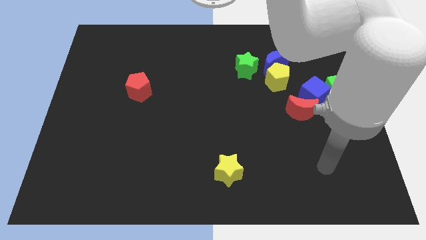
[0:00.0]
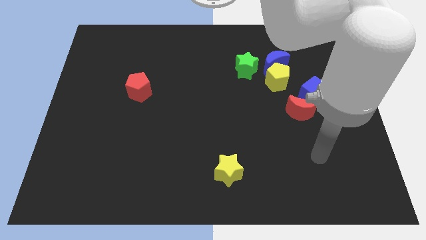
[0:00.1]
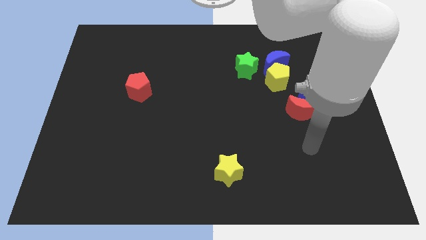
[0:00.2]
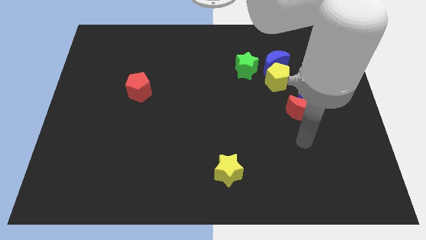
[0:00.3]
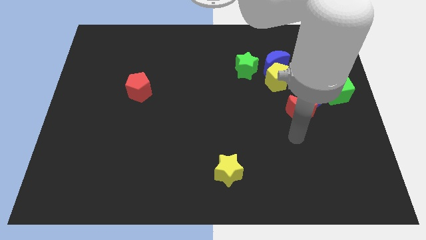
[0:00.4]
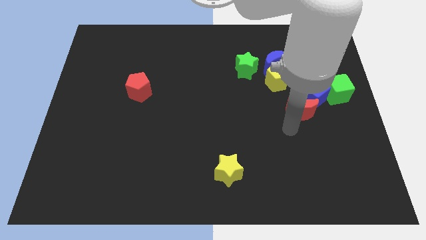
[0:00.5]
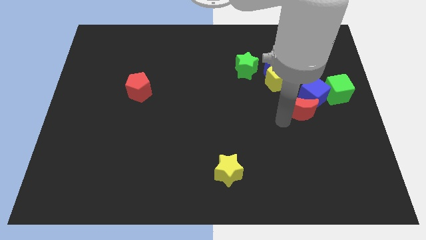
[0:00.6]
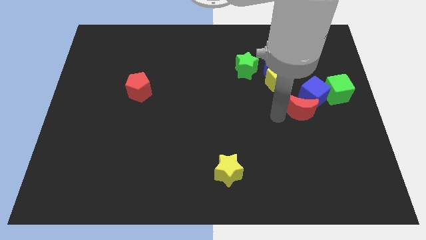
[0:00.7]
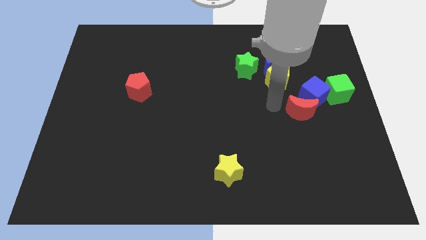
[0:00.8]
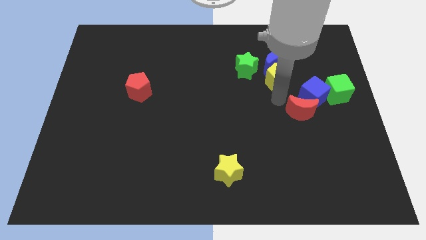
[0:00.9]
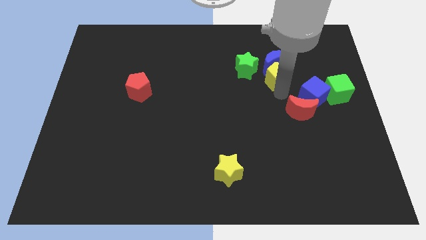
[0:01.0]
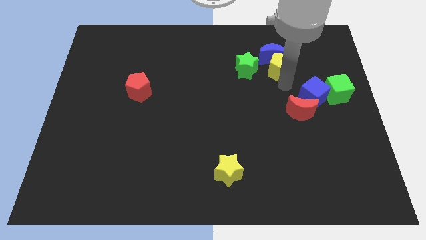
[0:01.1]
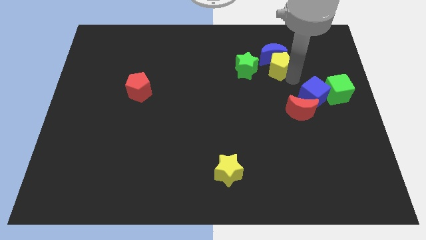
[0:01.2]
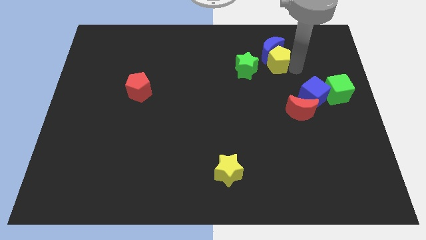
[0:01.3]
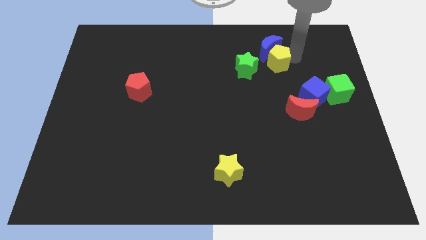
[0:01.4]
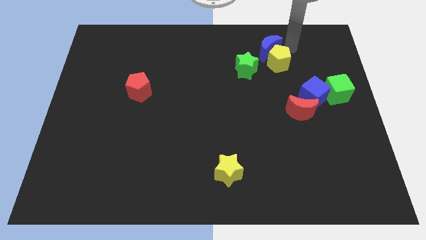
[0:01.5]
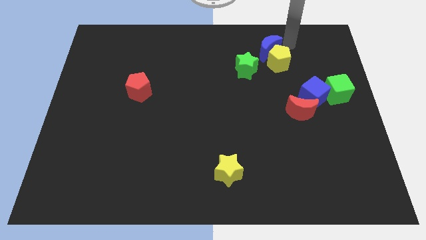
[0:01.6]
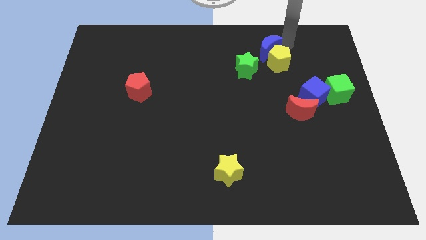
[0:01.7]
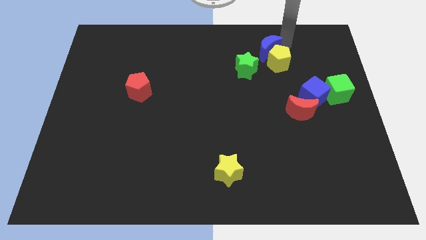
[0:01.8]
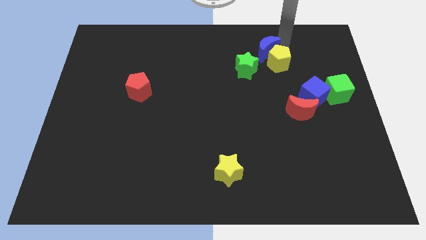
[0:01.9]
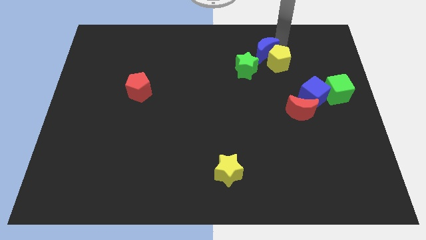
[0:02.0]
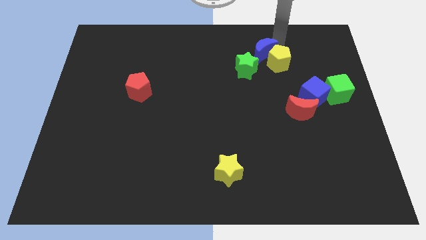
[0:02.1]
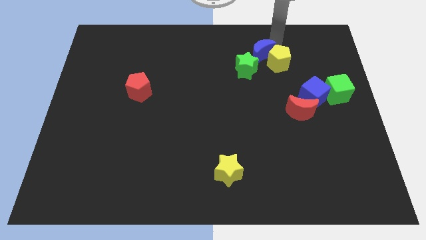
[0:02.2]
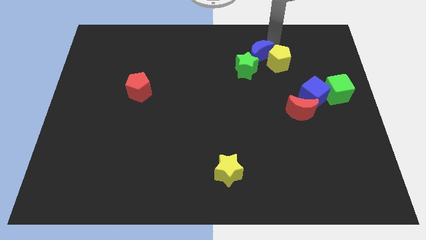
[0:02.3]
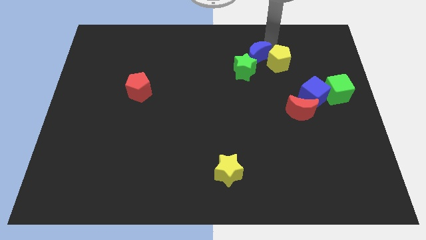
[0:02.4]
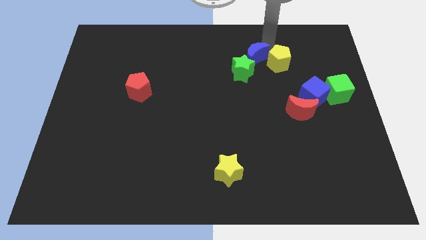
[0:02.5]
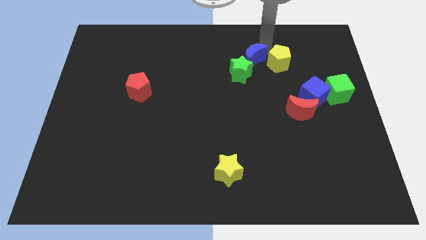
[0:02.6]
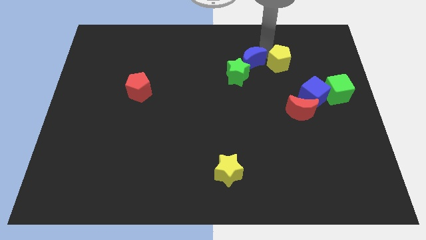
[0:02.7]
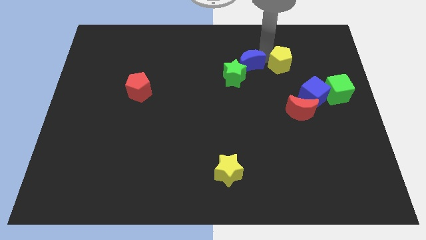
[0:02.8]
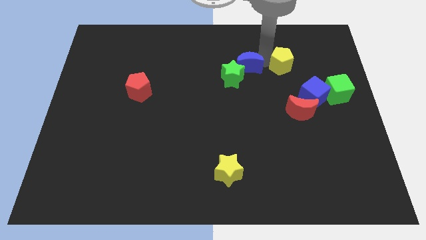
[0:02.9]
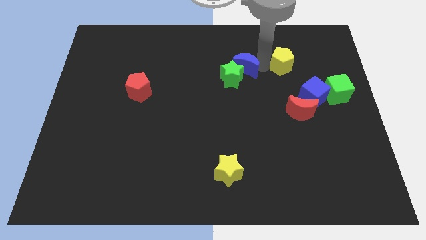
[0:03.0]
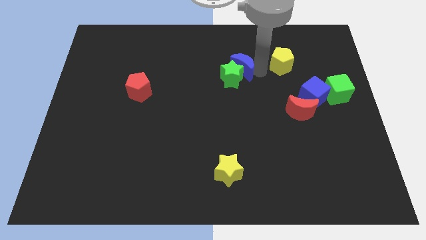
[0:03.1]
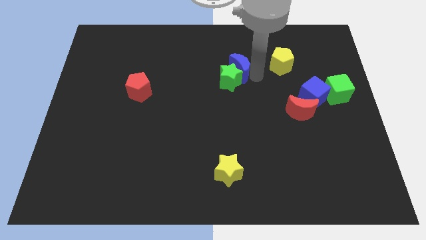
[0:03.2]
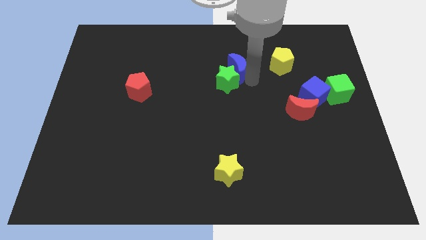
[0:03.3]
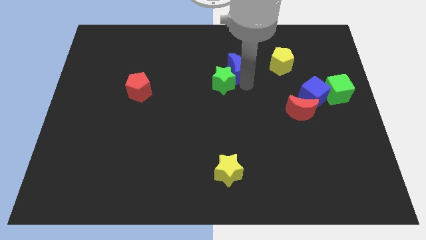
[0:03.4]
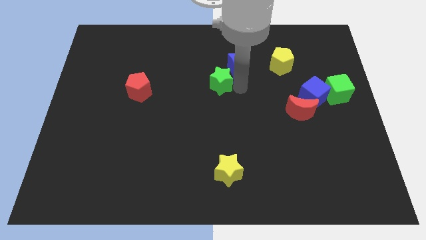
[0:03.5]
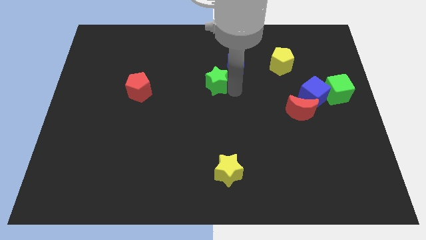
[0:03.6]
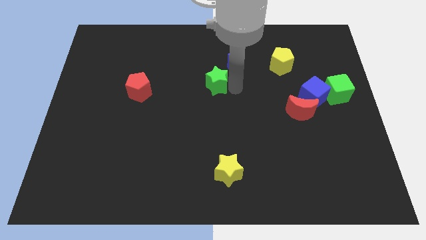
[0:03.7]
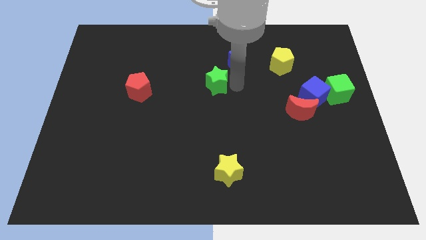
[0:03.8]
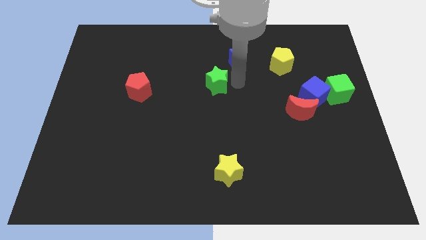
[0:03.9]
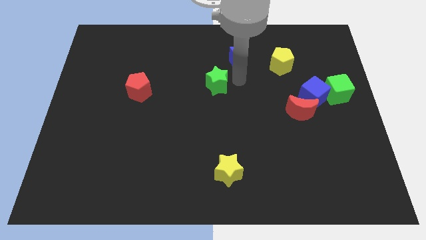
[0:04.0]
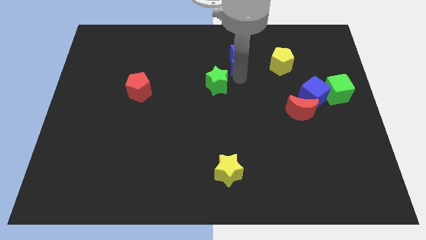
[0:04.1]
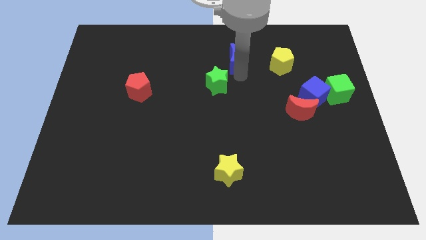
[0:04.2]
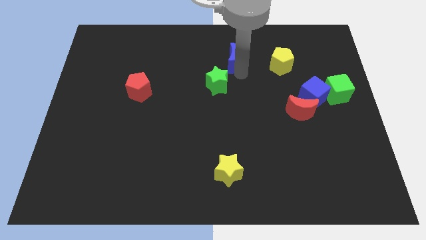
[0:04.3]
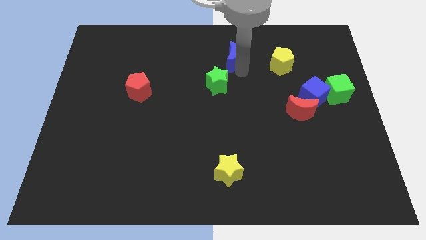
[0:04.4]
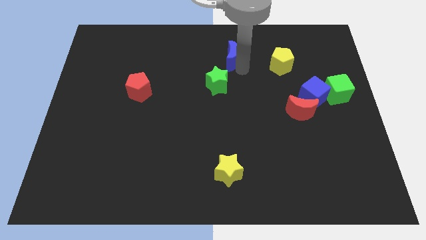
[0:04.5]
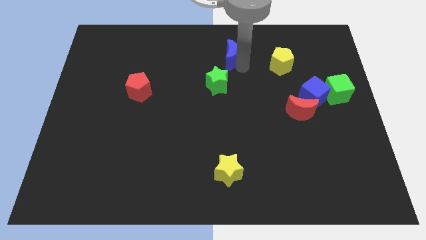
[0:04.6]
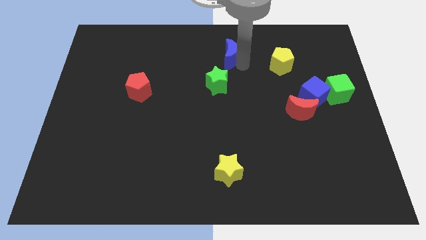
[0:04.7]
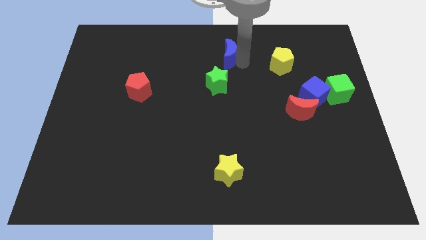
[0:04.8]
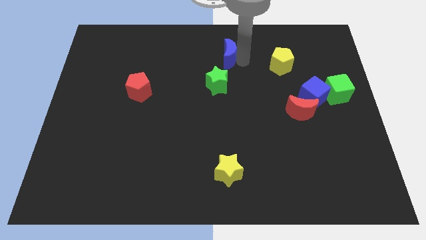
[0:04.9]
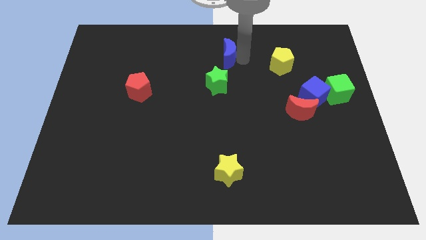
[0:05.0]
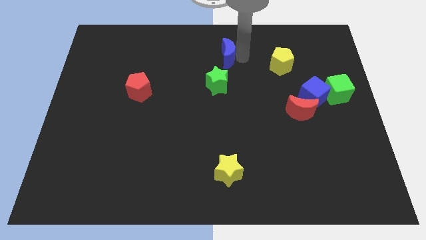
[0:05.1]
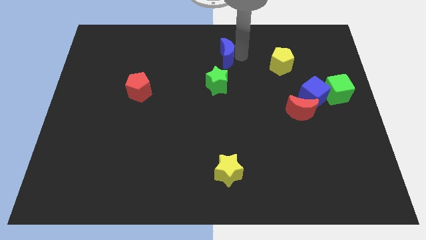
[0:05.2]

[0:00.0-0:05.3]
slide the blue moon to the top
